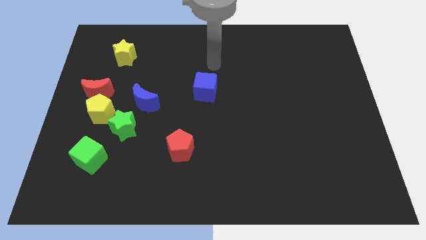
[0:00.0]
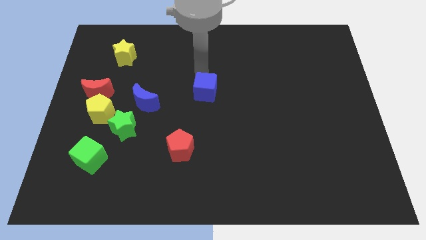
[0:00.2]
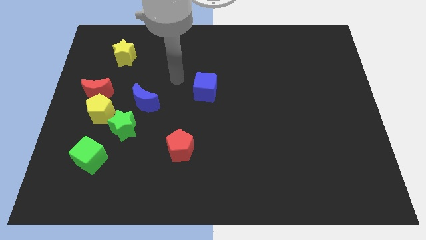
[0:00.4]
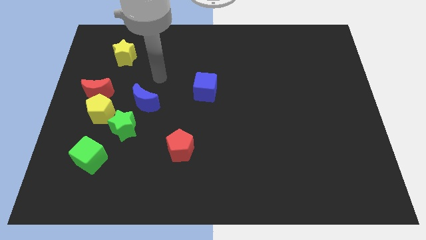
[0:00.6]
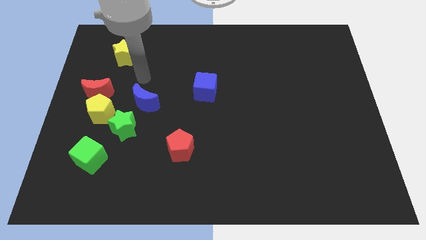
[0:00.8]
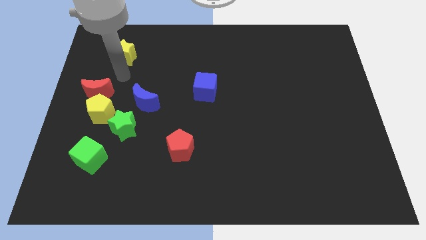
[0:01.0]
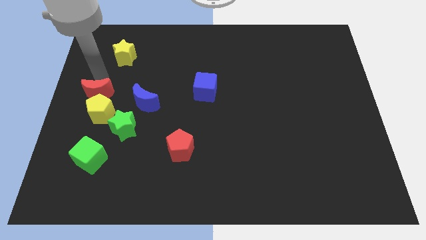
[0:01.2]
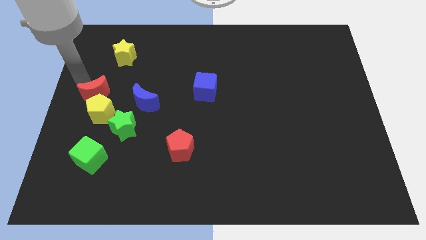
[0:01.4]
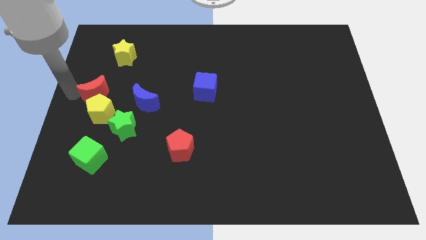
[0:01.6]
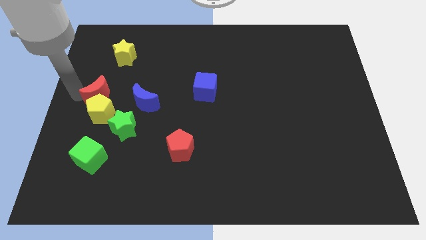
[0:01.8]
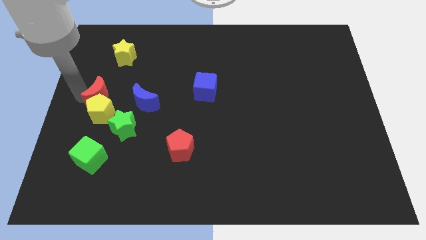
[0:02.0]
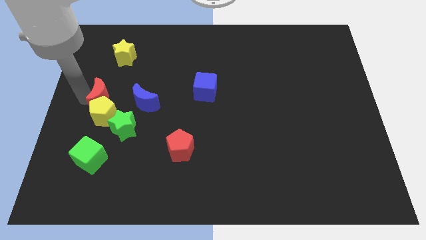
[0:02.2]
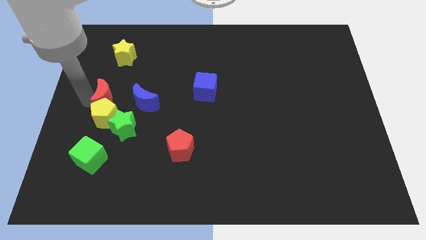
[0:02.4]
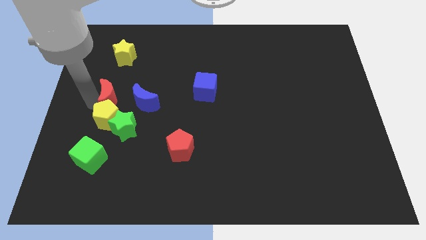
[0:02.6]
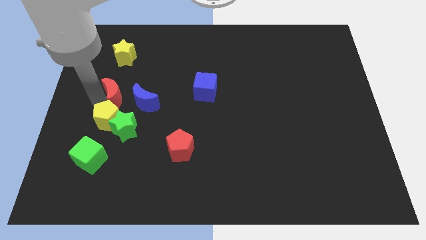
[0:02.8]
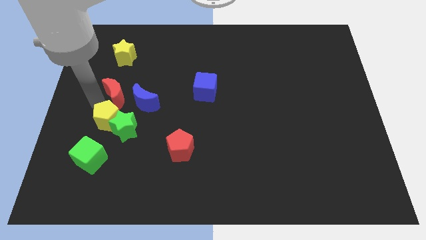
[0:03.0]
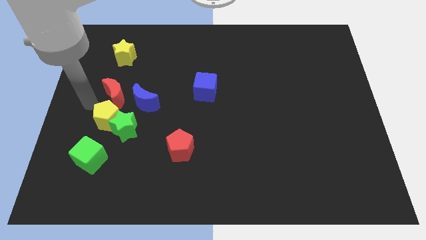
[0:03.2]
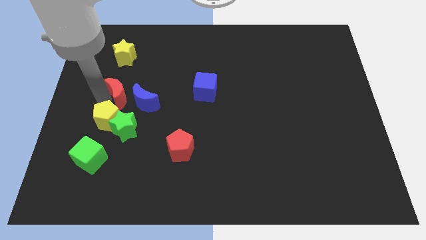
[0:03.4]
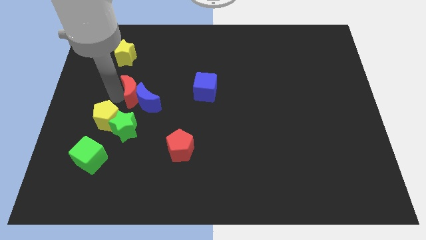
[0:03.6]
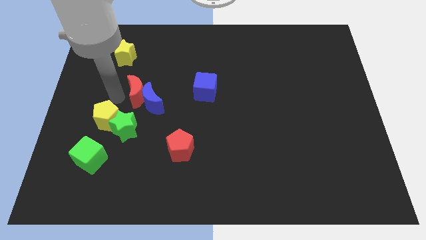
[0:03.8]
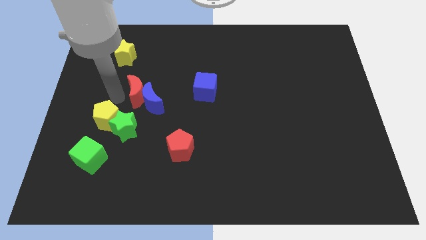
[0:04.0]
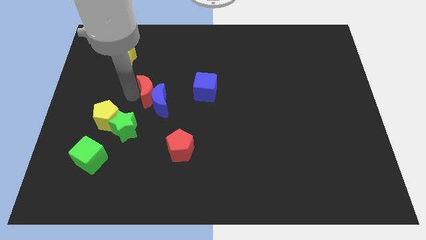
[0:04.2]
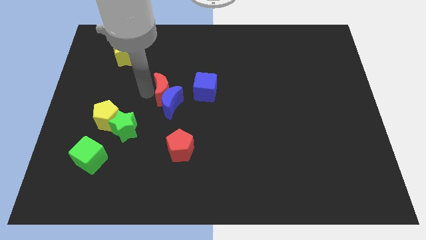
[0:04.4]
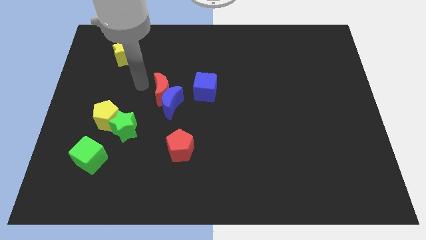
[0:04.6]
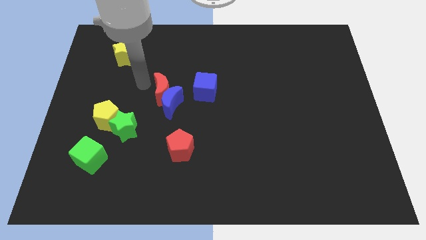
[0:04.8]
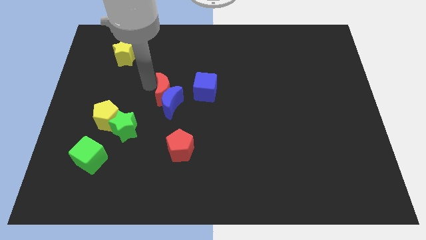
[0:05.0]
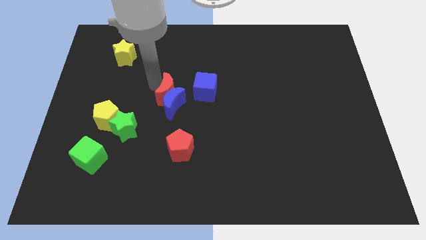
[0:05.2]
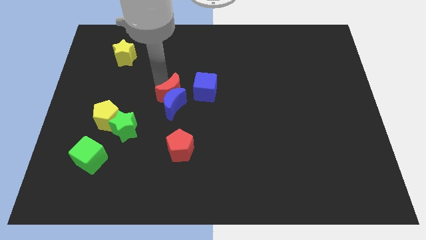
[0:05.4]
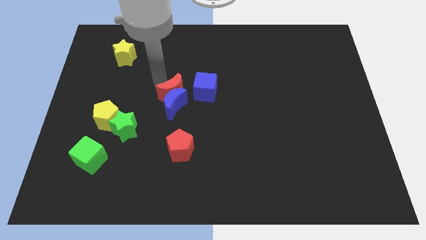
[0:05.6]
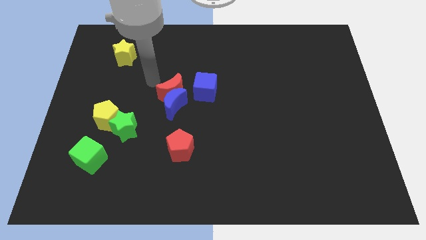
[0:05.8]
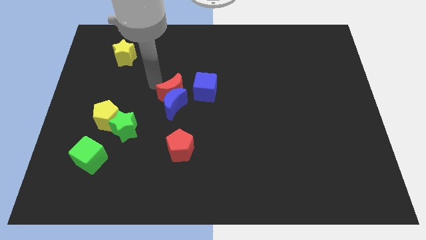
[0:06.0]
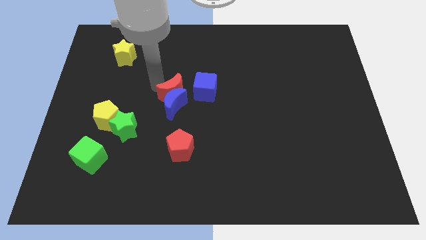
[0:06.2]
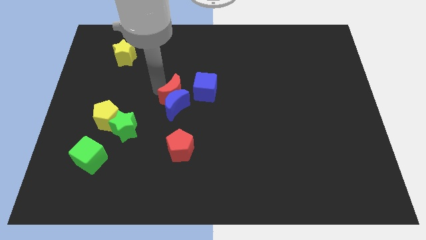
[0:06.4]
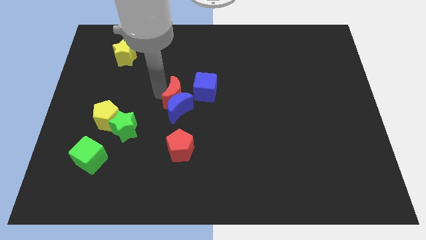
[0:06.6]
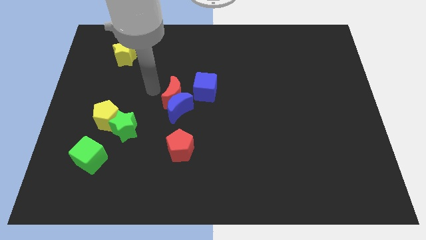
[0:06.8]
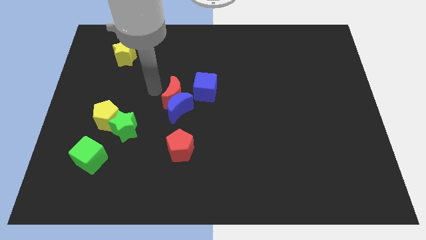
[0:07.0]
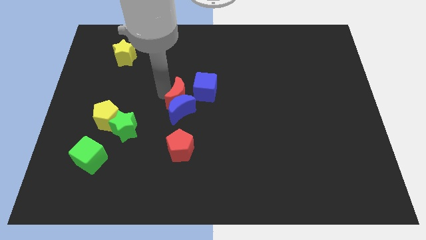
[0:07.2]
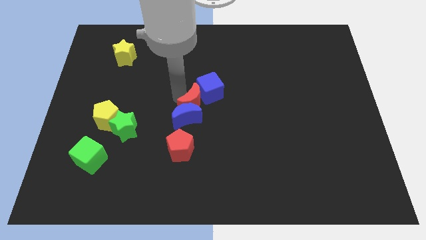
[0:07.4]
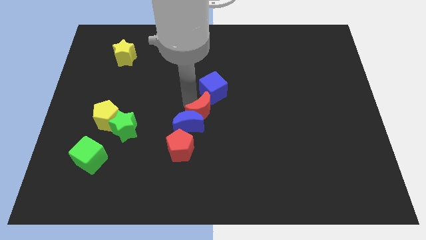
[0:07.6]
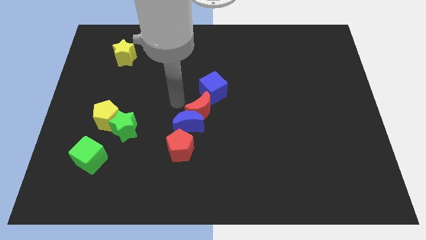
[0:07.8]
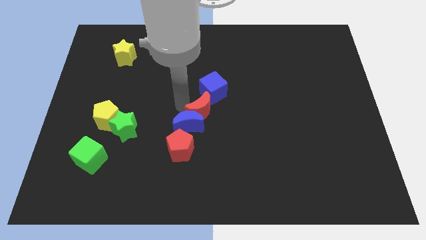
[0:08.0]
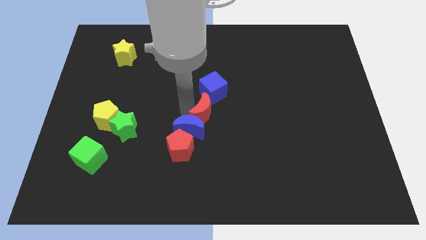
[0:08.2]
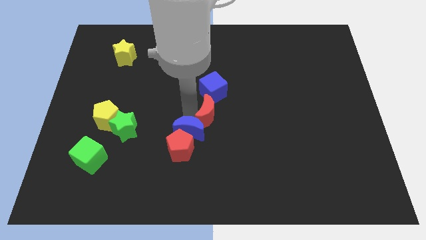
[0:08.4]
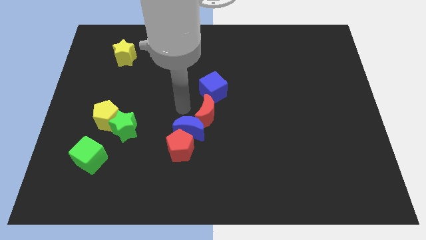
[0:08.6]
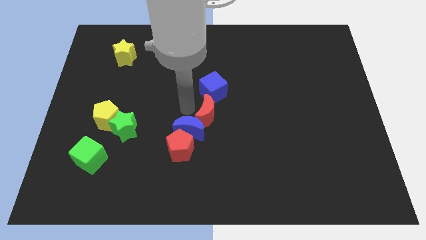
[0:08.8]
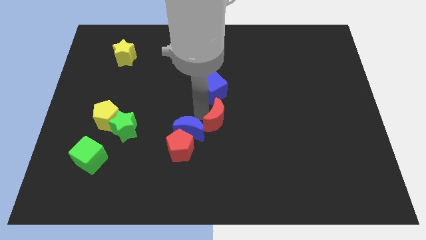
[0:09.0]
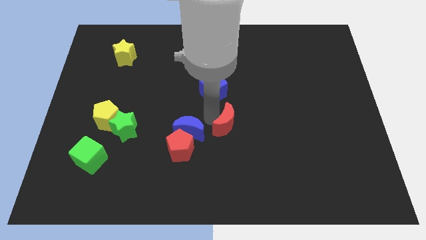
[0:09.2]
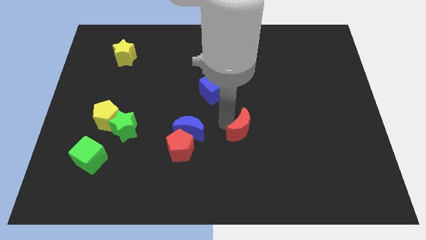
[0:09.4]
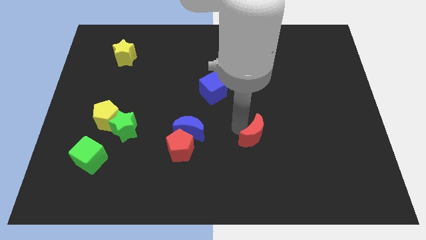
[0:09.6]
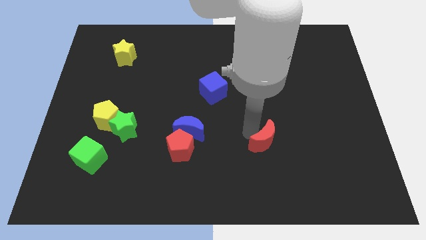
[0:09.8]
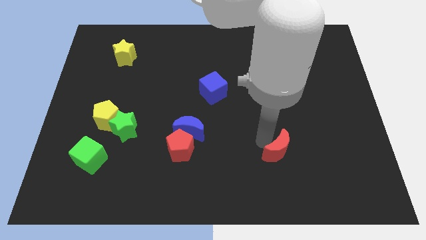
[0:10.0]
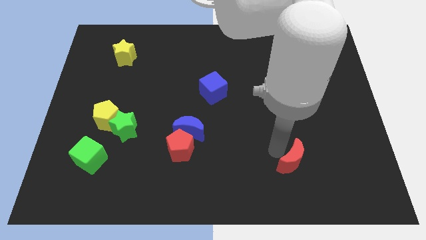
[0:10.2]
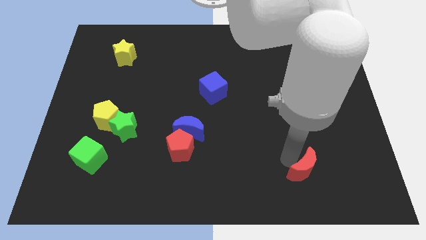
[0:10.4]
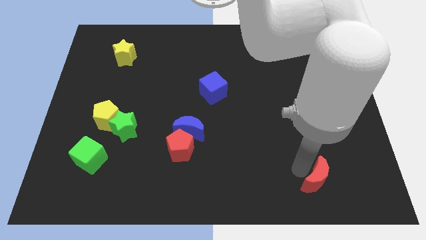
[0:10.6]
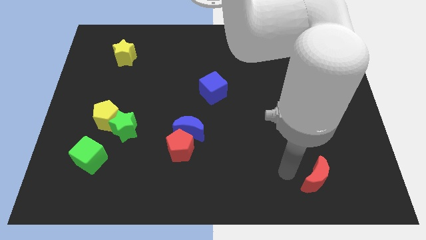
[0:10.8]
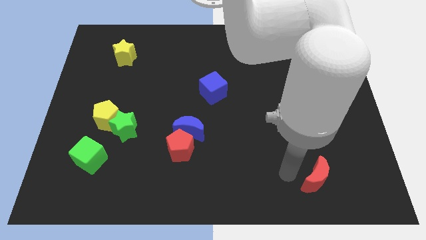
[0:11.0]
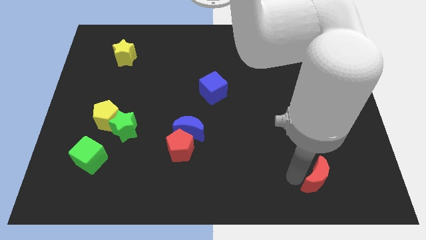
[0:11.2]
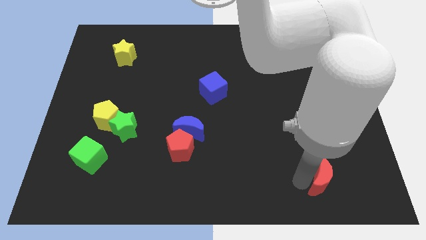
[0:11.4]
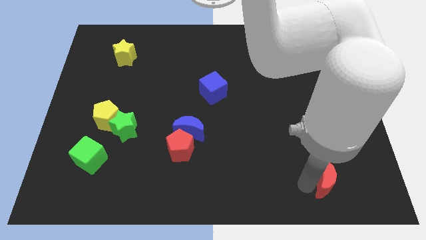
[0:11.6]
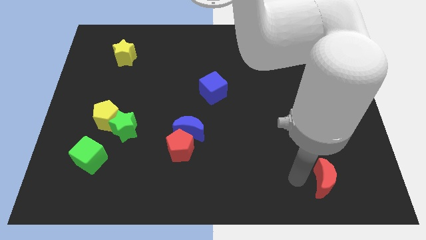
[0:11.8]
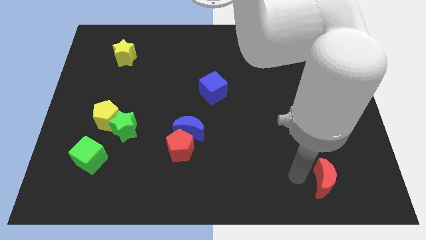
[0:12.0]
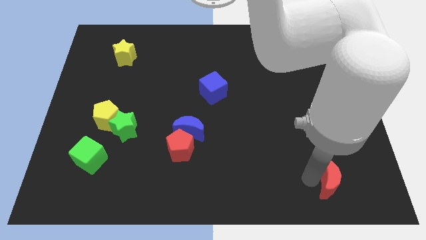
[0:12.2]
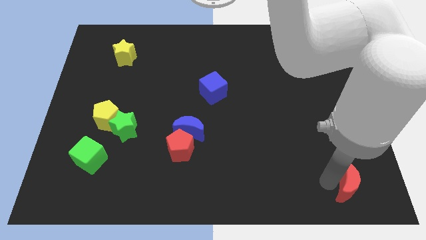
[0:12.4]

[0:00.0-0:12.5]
move the red moon to the bottom right

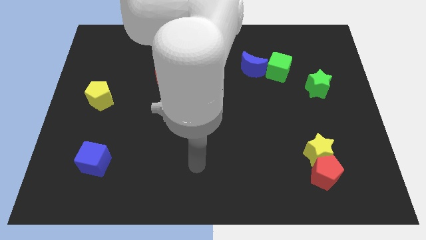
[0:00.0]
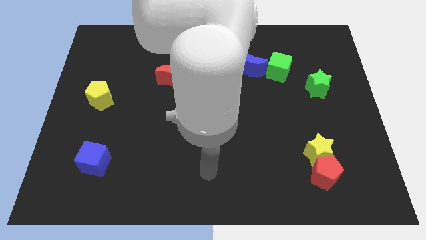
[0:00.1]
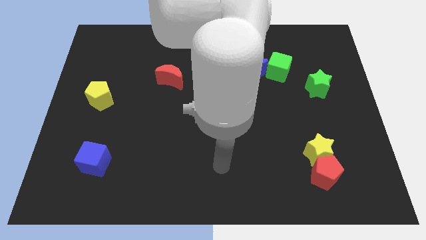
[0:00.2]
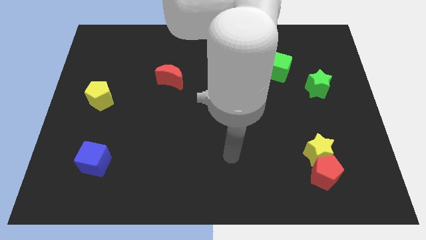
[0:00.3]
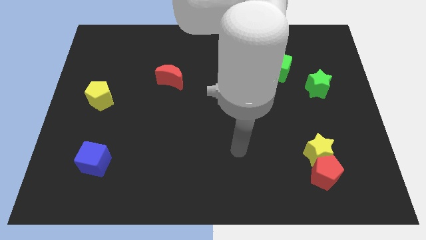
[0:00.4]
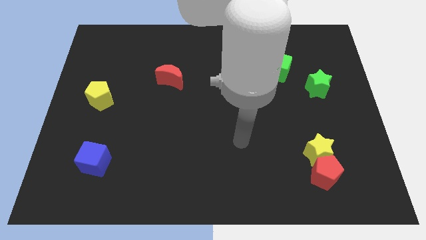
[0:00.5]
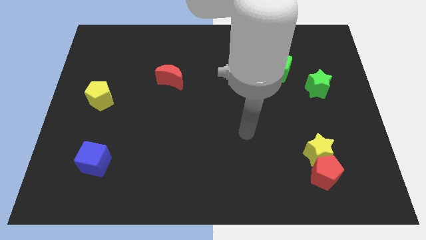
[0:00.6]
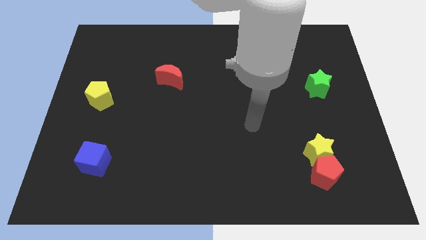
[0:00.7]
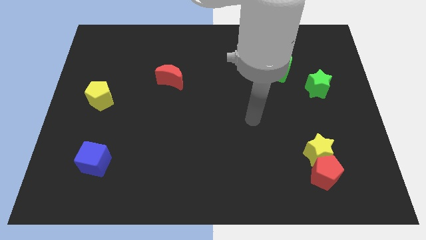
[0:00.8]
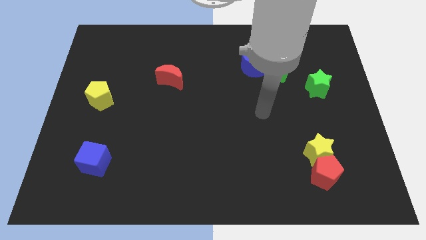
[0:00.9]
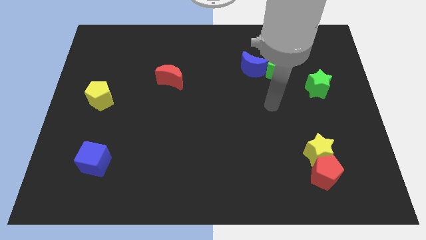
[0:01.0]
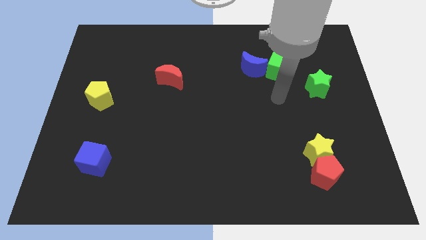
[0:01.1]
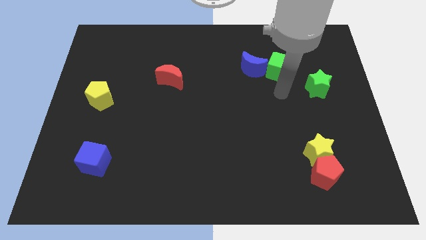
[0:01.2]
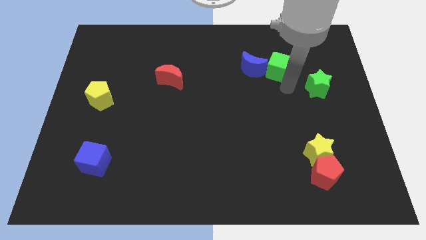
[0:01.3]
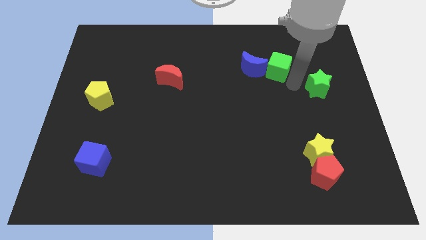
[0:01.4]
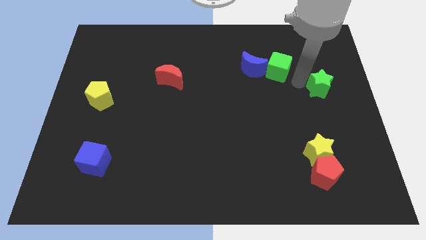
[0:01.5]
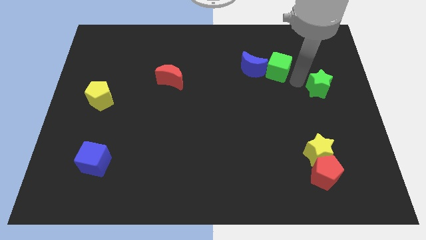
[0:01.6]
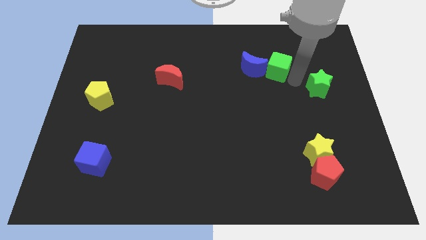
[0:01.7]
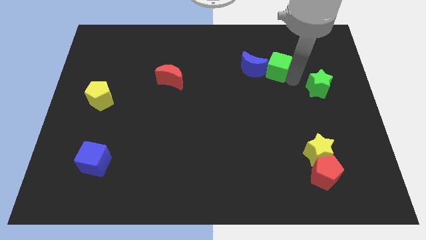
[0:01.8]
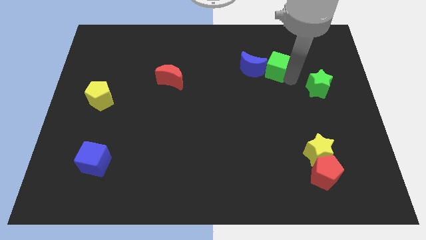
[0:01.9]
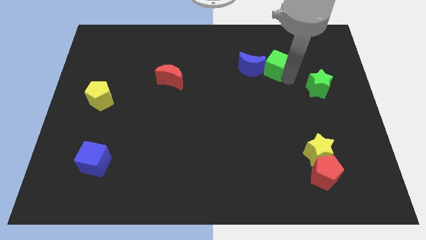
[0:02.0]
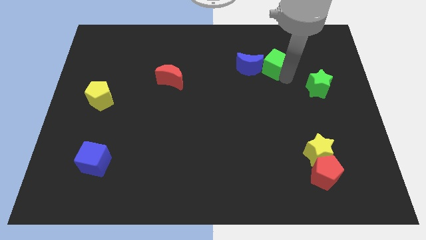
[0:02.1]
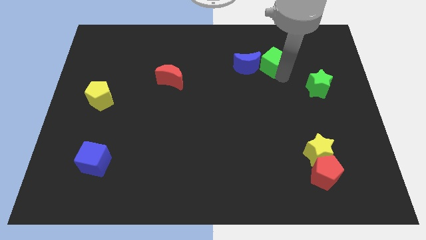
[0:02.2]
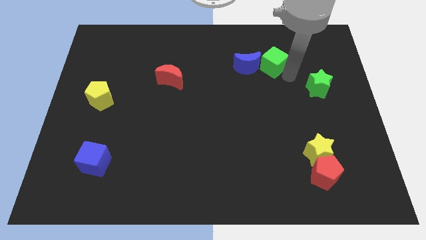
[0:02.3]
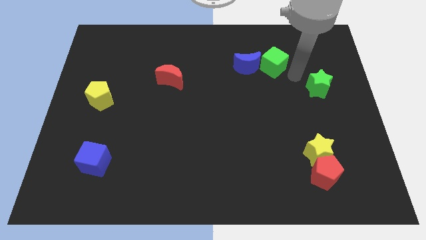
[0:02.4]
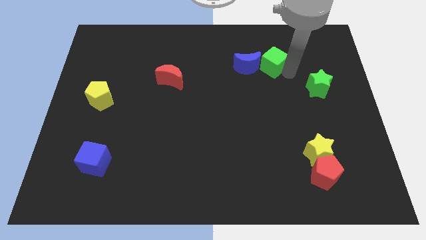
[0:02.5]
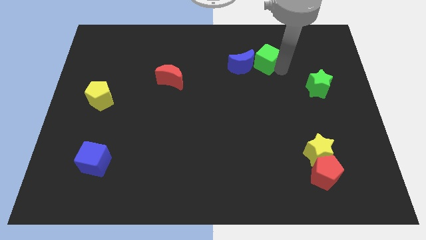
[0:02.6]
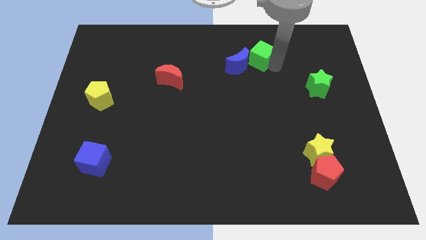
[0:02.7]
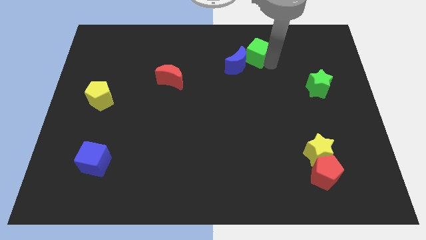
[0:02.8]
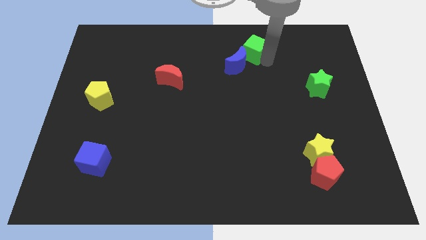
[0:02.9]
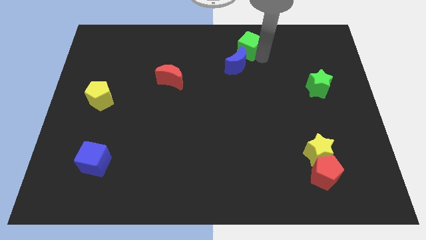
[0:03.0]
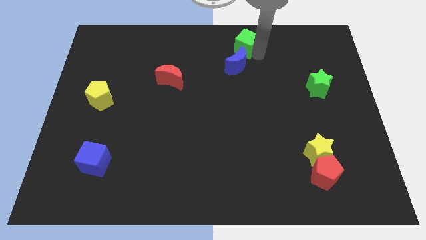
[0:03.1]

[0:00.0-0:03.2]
move the green cube to the top side
